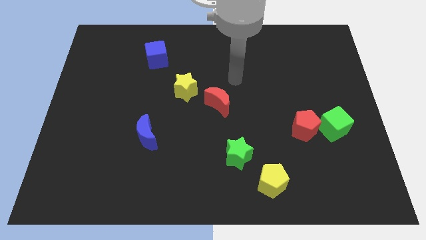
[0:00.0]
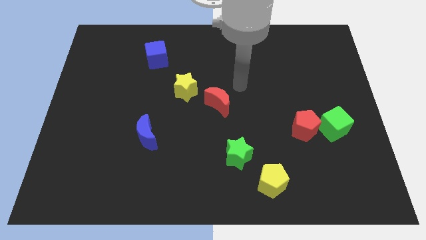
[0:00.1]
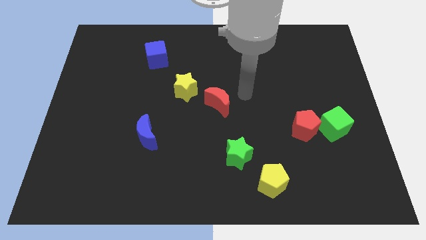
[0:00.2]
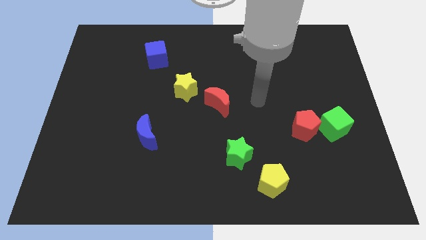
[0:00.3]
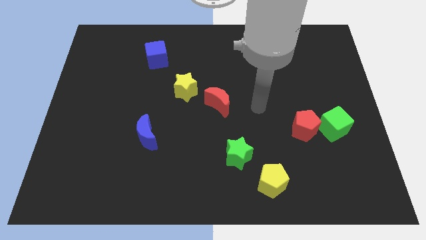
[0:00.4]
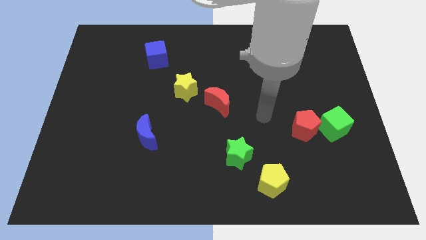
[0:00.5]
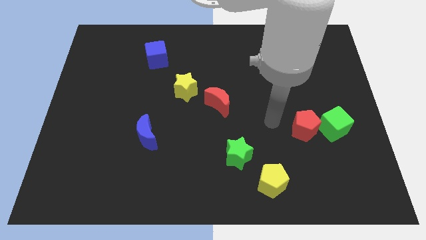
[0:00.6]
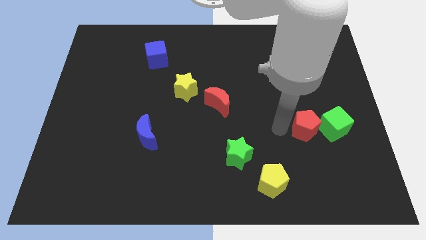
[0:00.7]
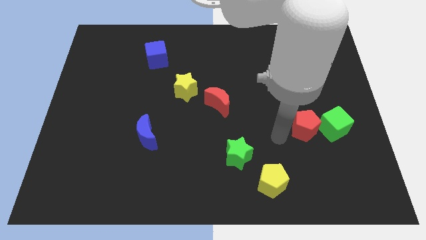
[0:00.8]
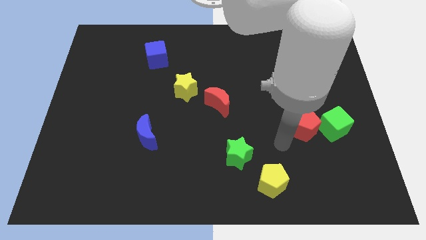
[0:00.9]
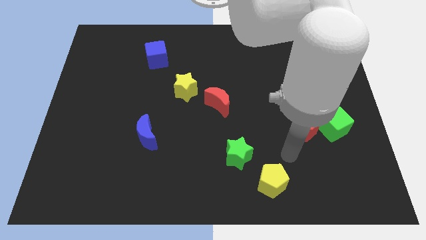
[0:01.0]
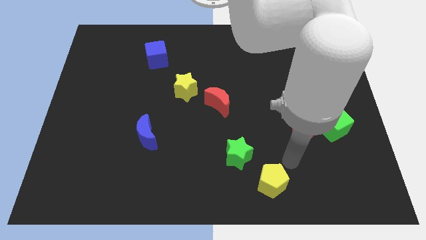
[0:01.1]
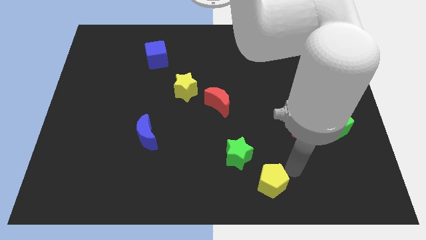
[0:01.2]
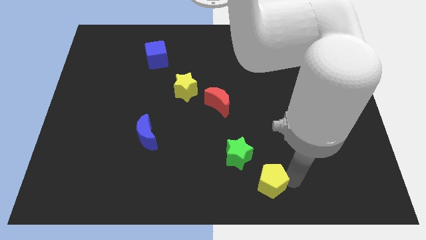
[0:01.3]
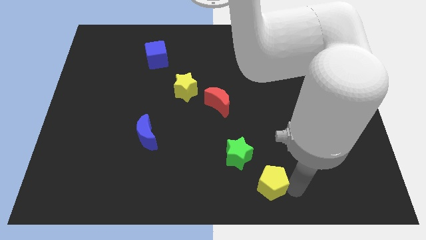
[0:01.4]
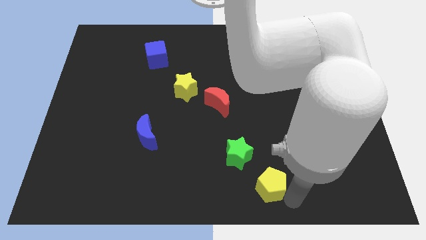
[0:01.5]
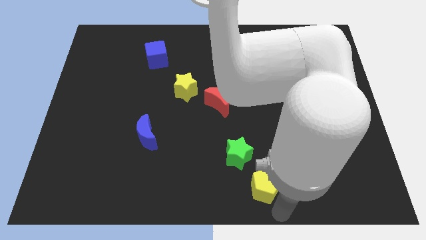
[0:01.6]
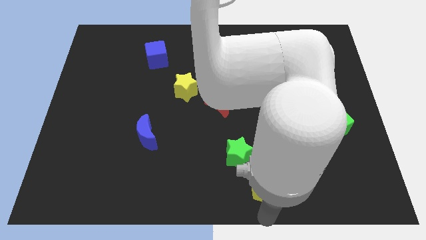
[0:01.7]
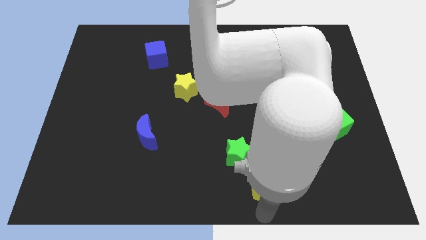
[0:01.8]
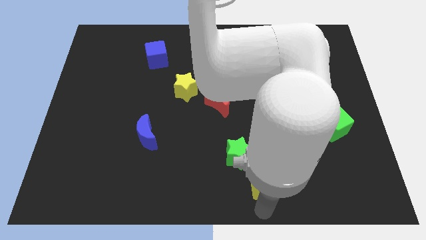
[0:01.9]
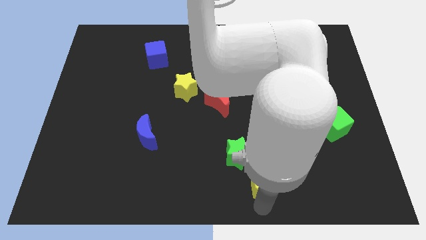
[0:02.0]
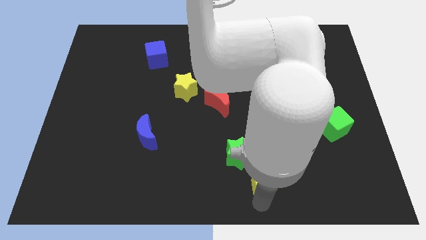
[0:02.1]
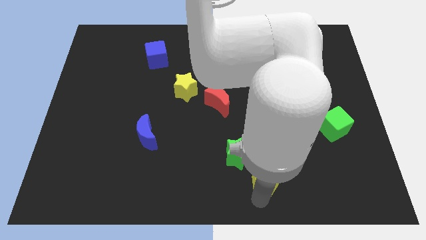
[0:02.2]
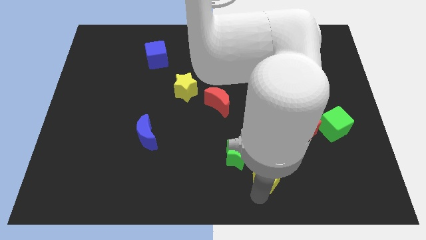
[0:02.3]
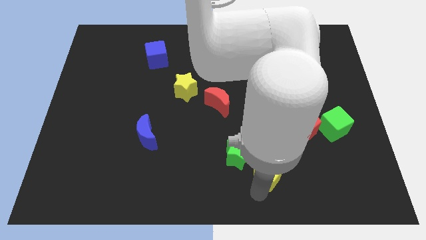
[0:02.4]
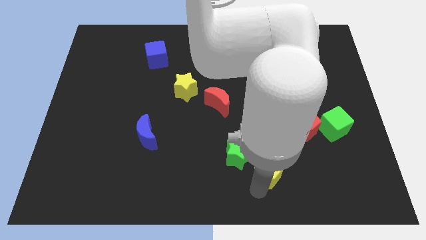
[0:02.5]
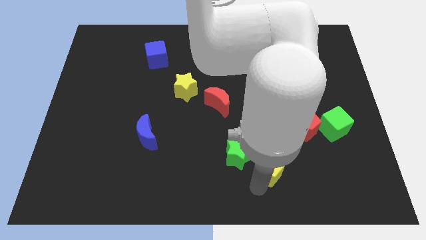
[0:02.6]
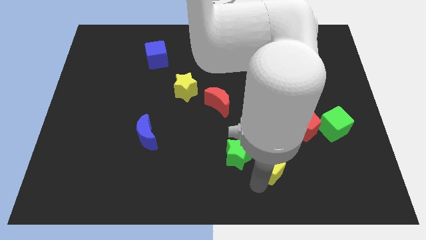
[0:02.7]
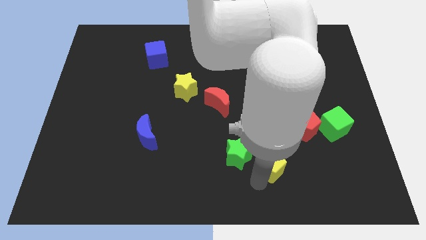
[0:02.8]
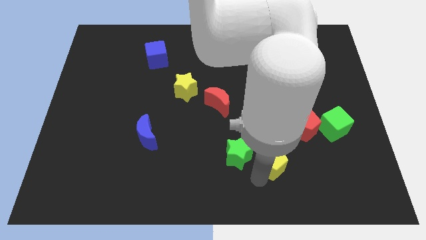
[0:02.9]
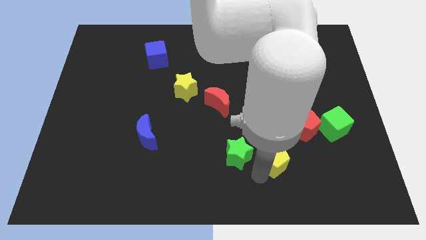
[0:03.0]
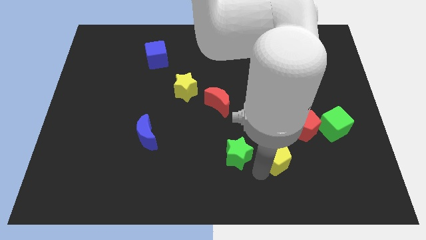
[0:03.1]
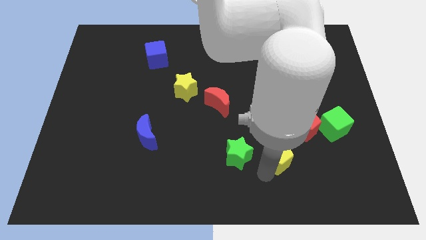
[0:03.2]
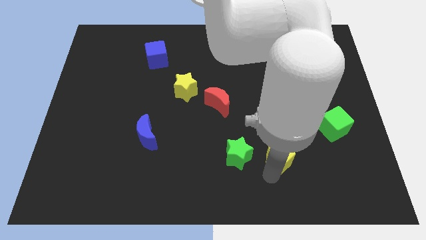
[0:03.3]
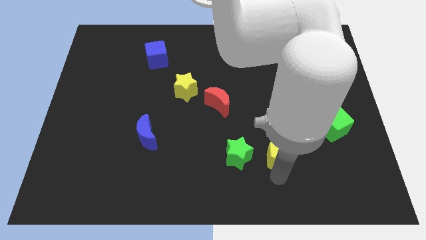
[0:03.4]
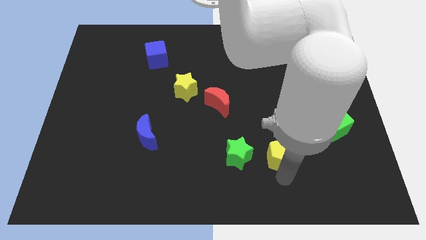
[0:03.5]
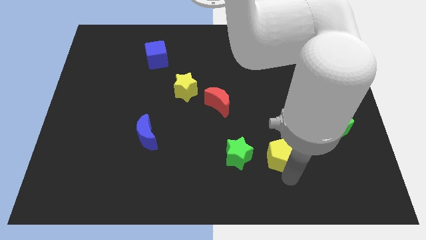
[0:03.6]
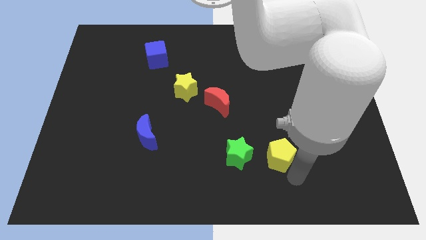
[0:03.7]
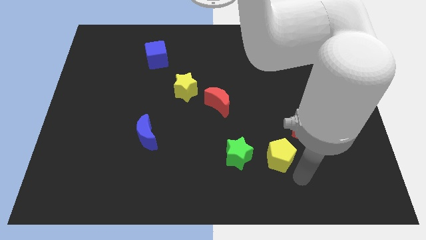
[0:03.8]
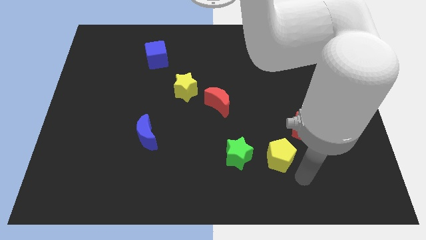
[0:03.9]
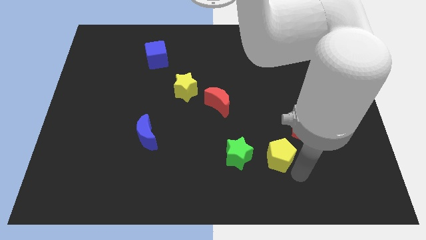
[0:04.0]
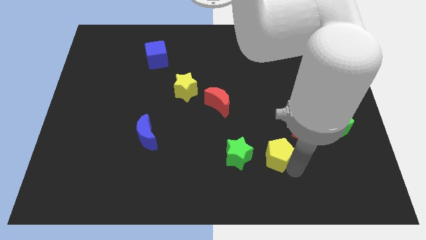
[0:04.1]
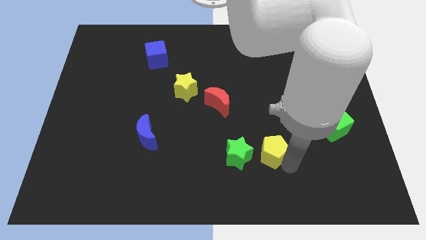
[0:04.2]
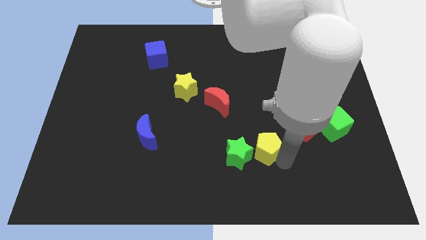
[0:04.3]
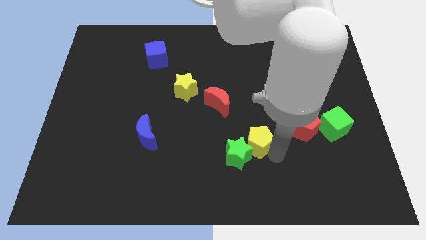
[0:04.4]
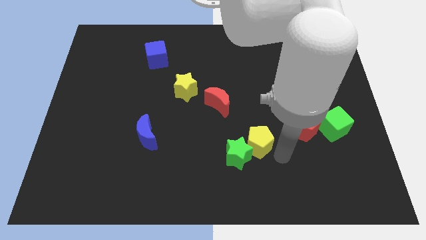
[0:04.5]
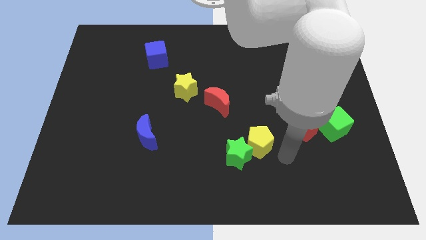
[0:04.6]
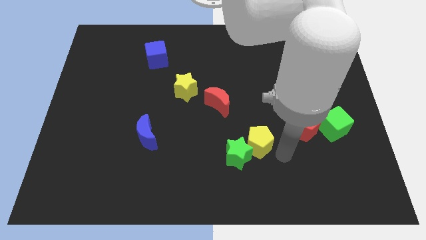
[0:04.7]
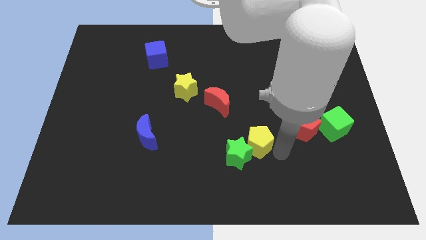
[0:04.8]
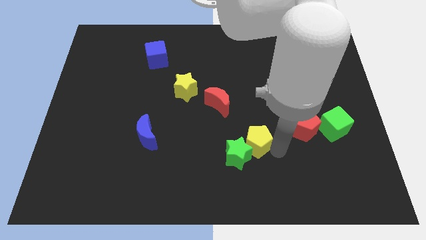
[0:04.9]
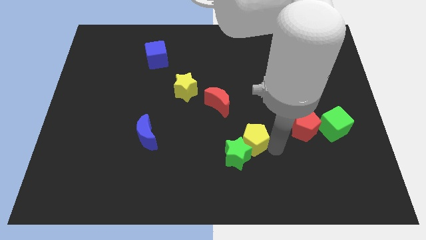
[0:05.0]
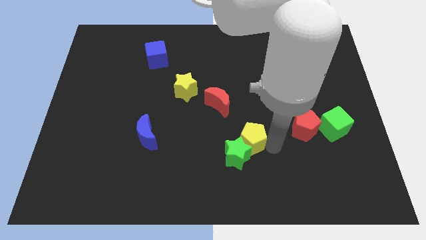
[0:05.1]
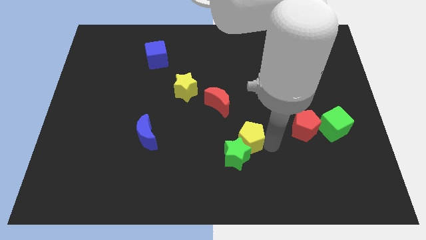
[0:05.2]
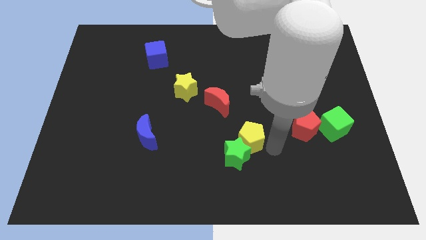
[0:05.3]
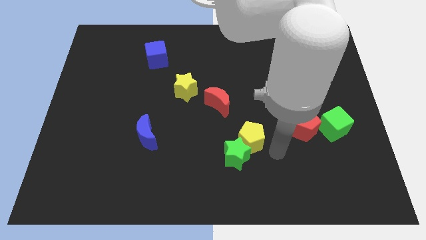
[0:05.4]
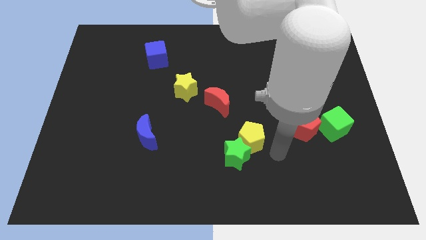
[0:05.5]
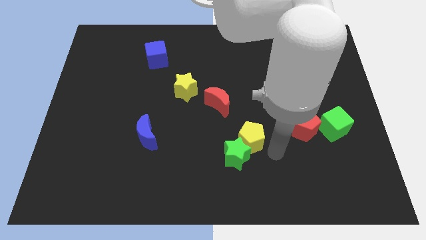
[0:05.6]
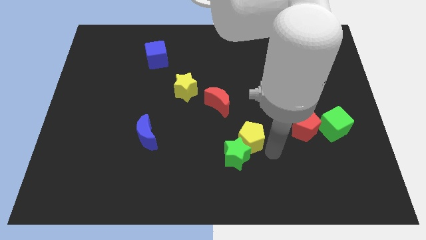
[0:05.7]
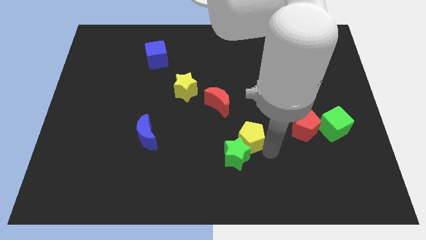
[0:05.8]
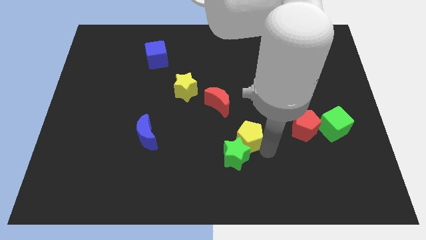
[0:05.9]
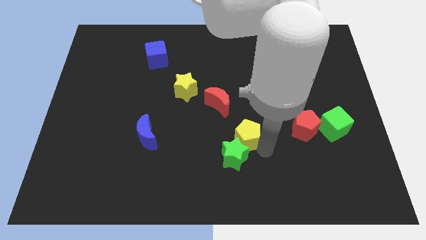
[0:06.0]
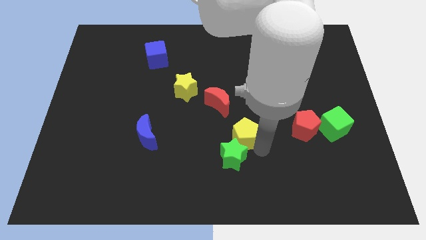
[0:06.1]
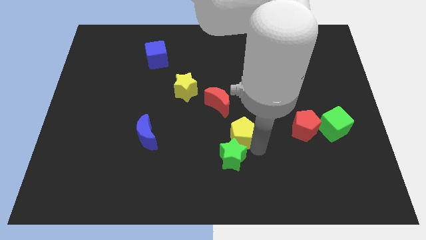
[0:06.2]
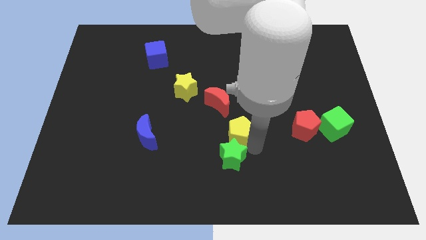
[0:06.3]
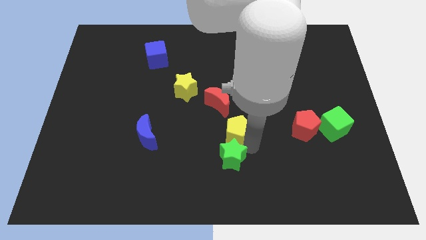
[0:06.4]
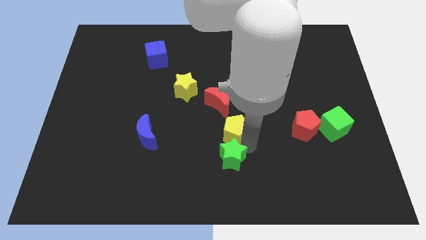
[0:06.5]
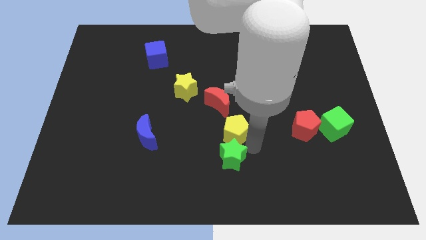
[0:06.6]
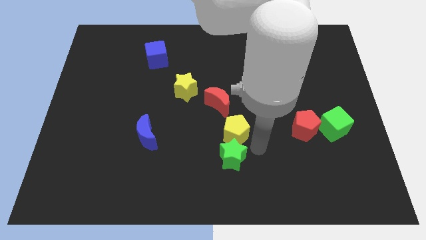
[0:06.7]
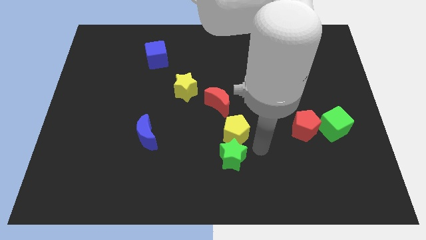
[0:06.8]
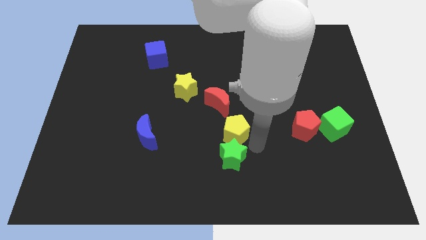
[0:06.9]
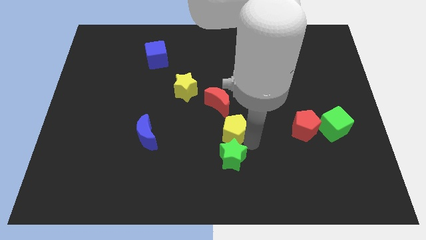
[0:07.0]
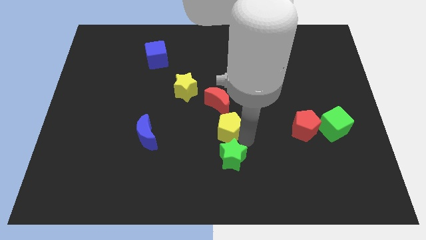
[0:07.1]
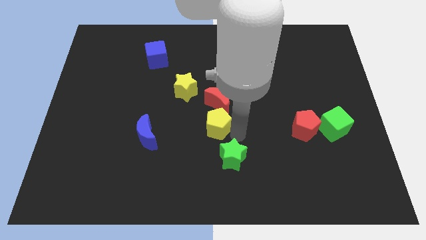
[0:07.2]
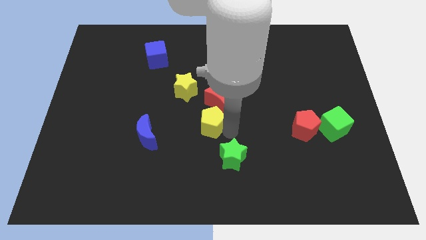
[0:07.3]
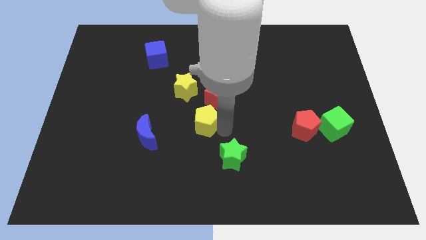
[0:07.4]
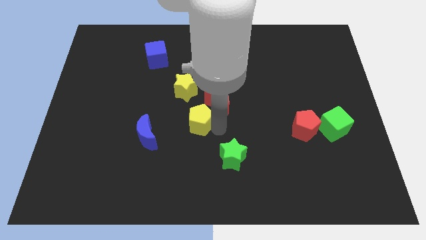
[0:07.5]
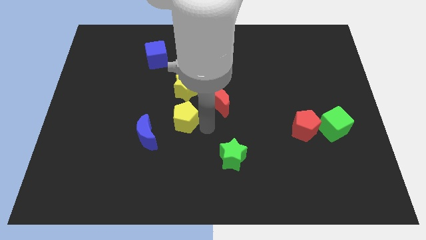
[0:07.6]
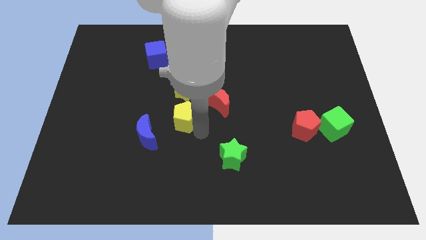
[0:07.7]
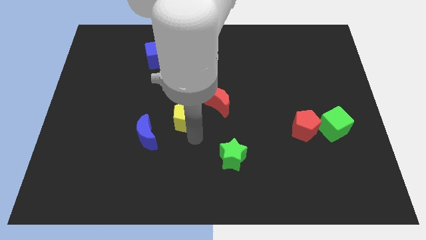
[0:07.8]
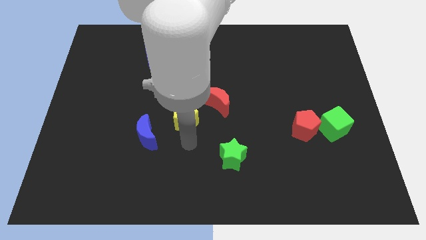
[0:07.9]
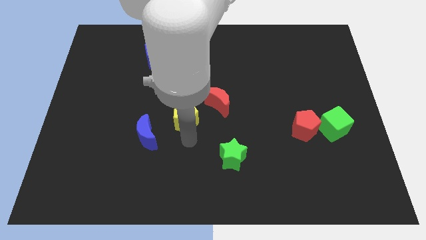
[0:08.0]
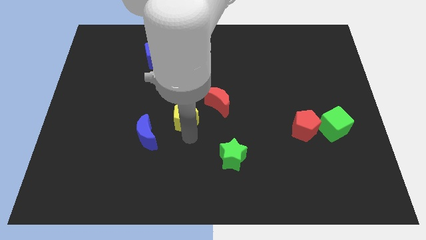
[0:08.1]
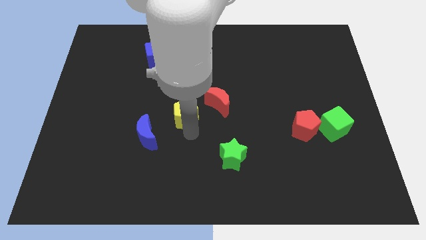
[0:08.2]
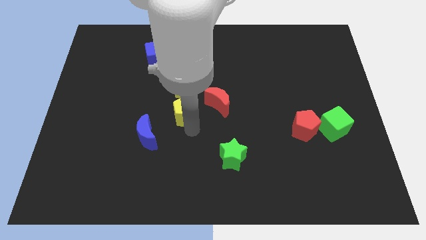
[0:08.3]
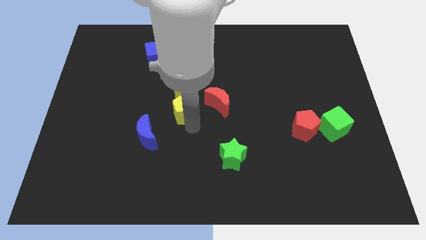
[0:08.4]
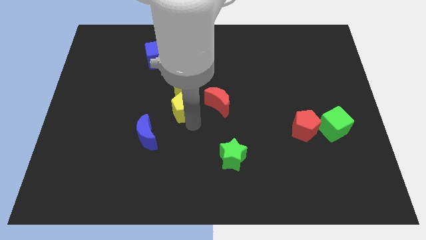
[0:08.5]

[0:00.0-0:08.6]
slide the yellow pentagon next to the yellow star
